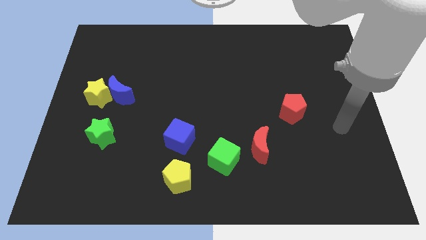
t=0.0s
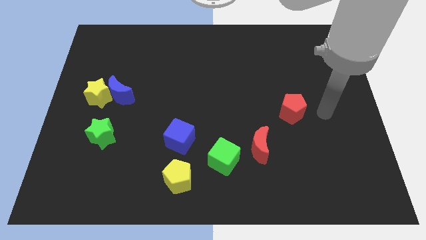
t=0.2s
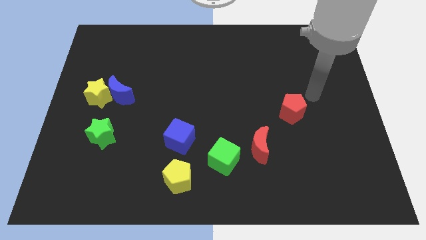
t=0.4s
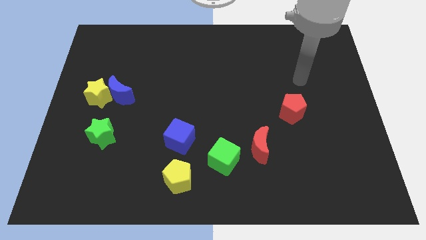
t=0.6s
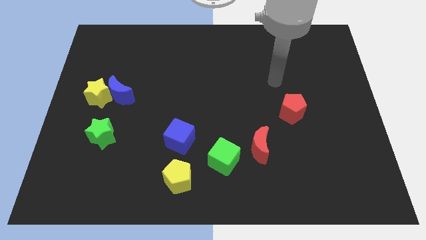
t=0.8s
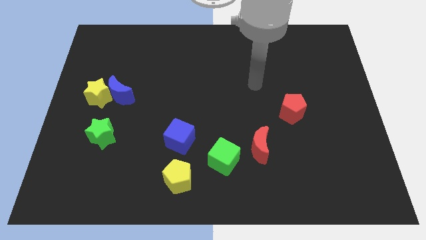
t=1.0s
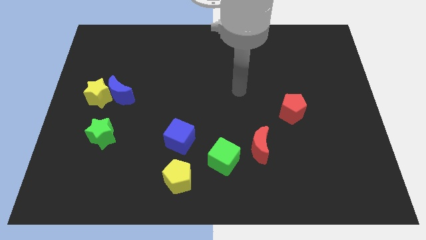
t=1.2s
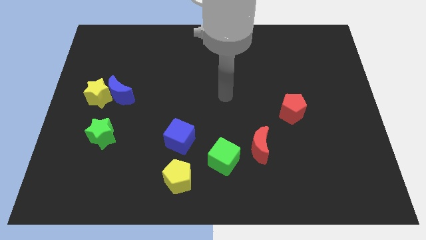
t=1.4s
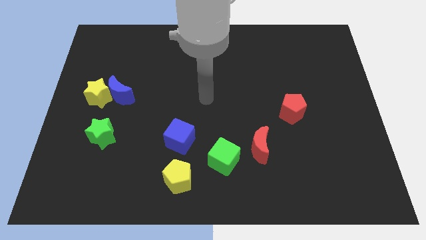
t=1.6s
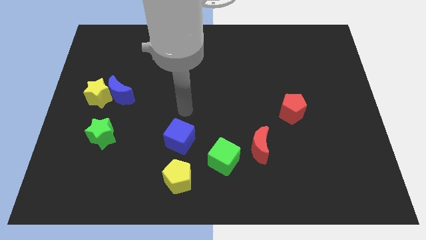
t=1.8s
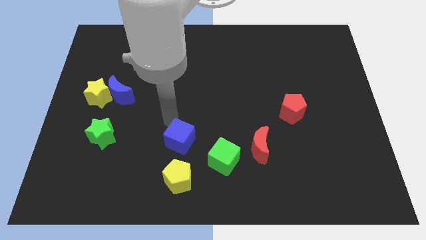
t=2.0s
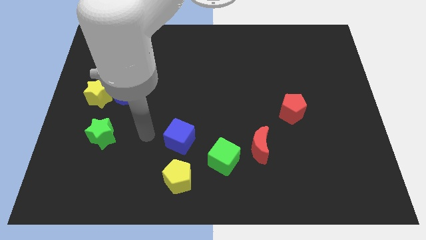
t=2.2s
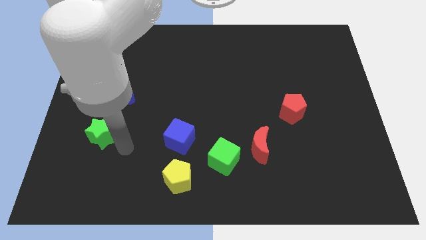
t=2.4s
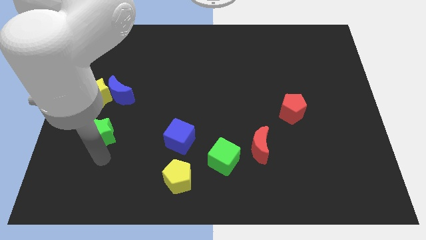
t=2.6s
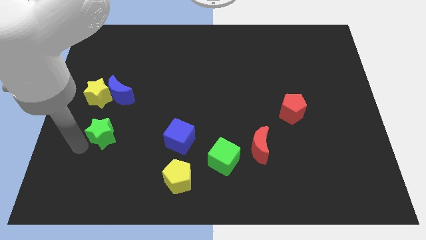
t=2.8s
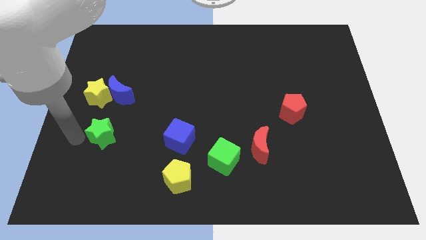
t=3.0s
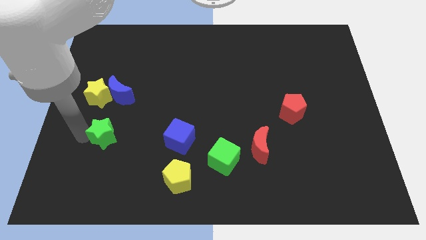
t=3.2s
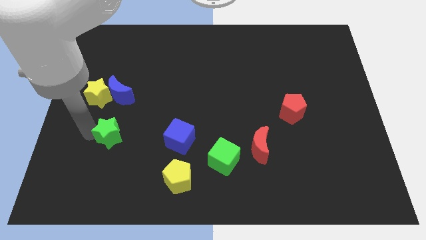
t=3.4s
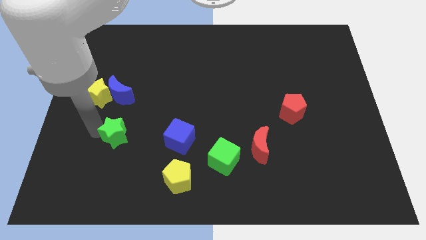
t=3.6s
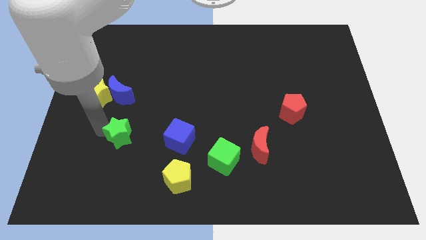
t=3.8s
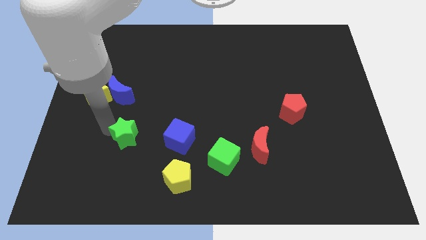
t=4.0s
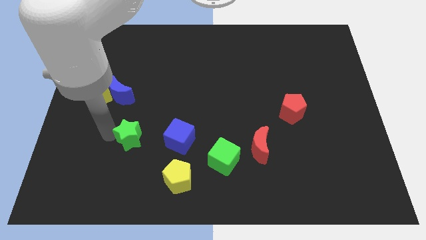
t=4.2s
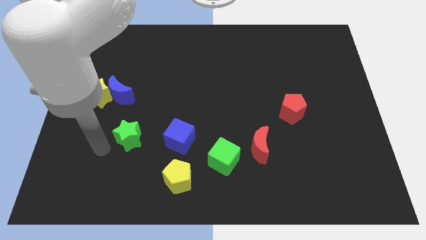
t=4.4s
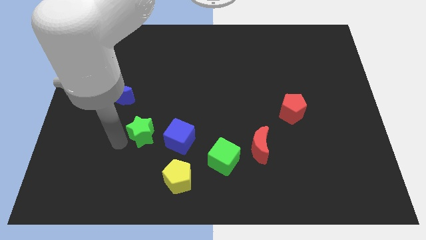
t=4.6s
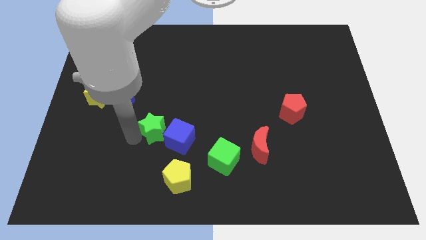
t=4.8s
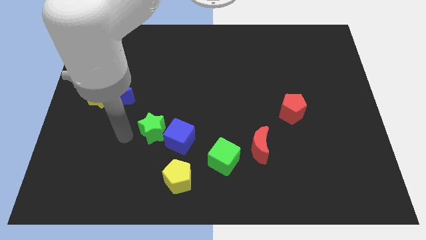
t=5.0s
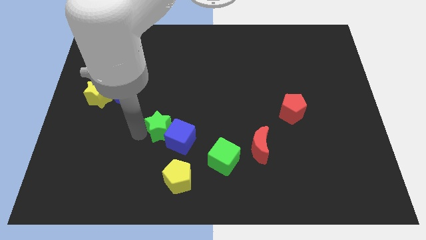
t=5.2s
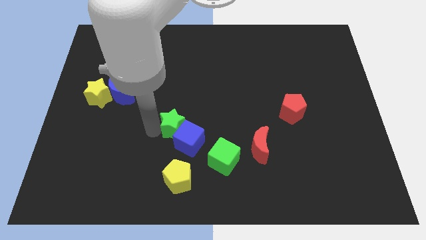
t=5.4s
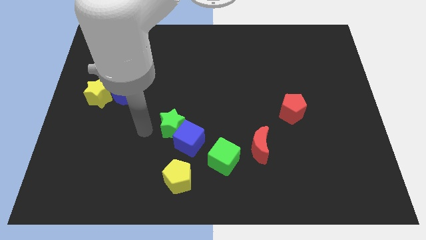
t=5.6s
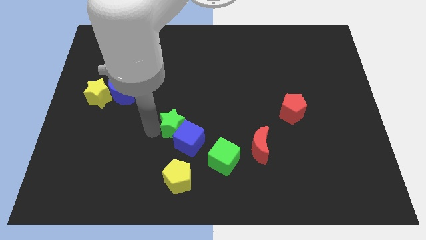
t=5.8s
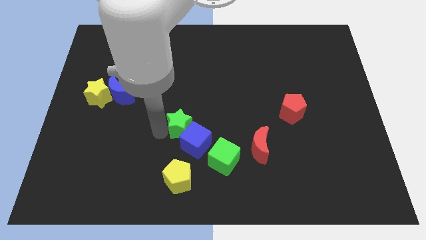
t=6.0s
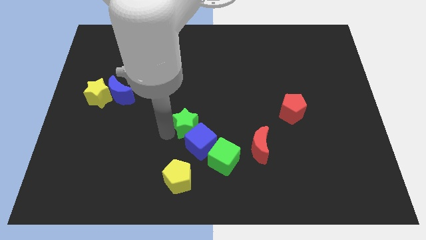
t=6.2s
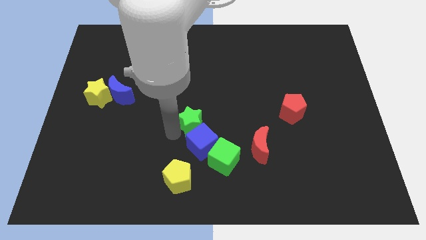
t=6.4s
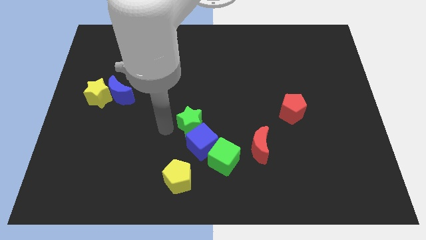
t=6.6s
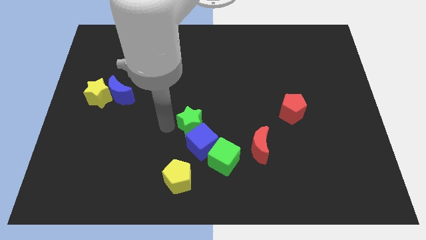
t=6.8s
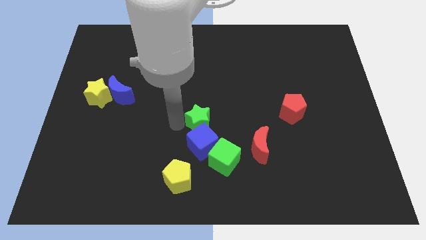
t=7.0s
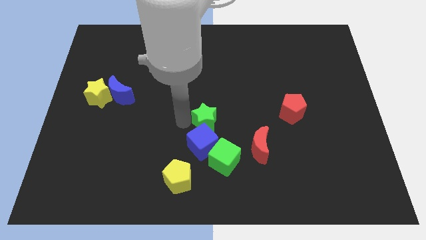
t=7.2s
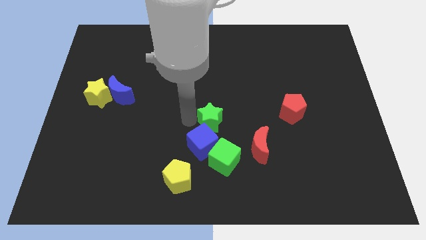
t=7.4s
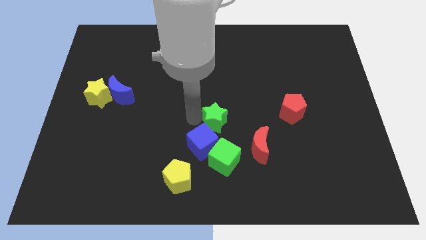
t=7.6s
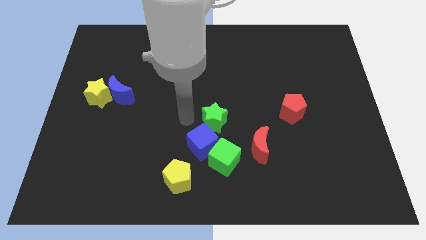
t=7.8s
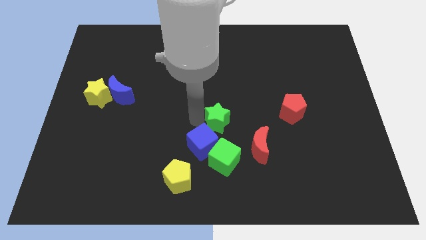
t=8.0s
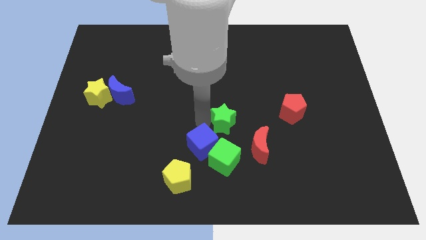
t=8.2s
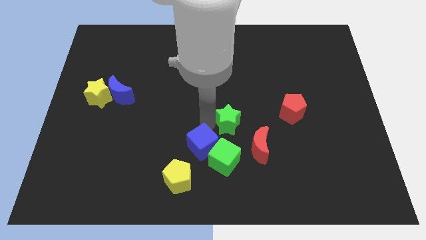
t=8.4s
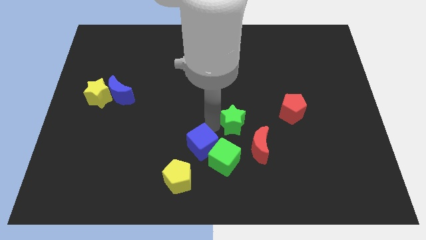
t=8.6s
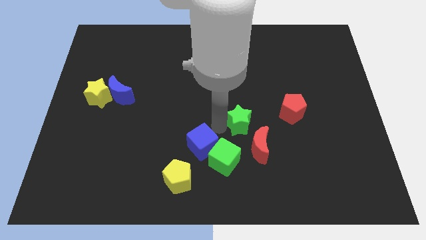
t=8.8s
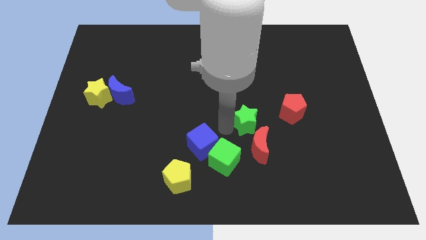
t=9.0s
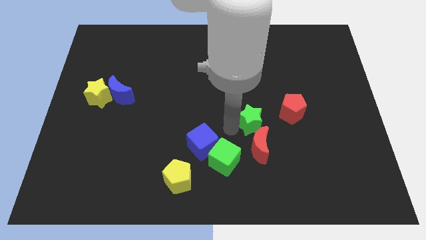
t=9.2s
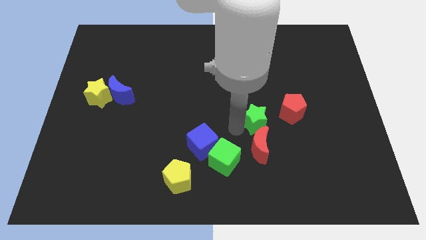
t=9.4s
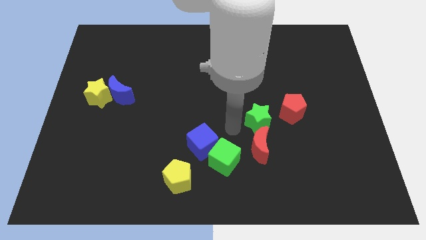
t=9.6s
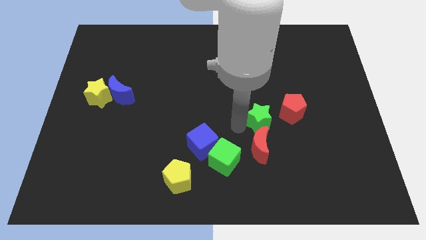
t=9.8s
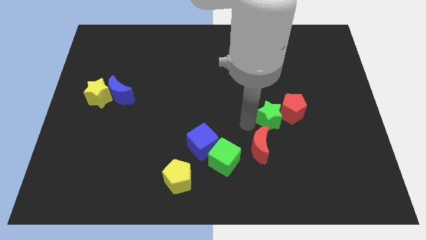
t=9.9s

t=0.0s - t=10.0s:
put the green star towards the red pentagon

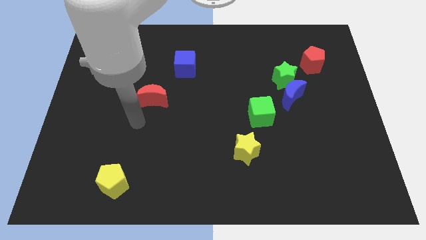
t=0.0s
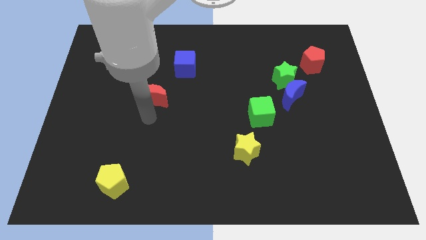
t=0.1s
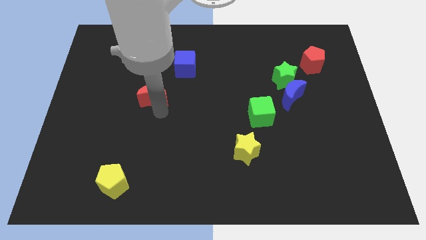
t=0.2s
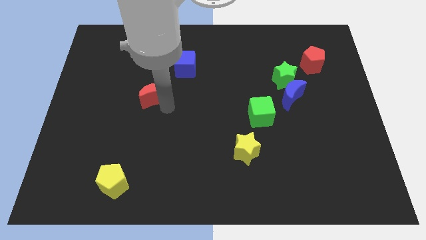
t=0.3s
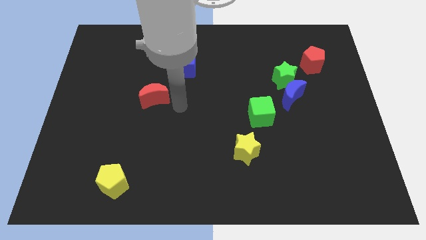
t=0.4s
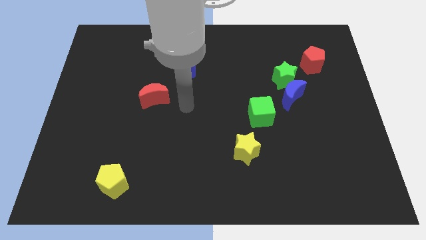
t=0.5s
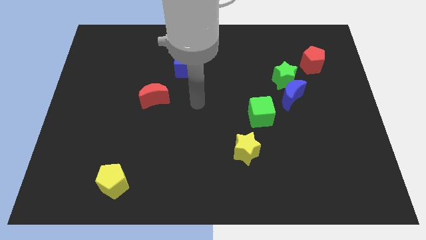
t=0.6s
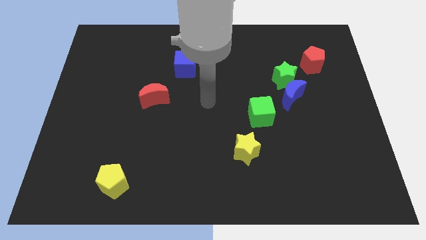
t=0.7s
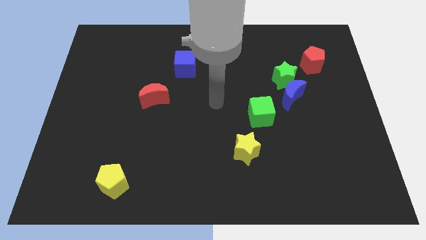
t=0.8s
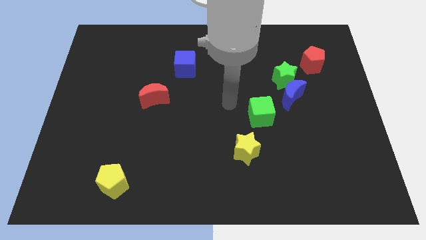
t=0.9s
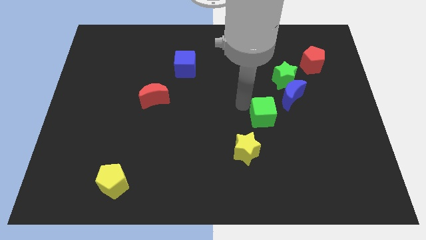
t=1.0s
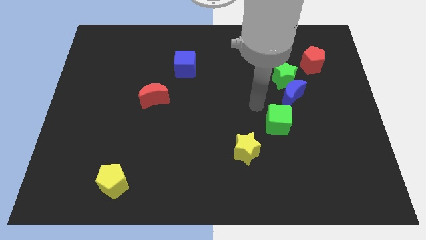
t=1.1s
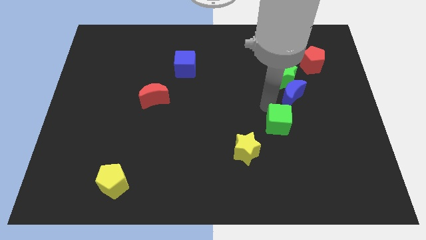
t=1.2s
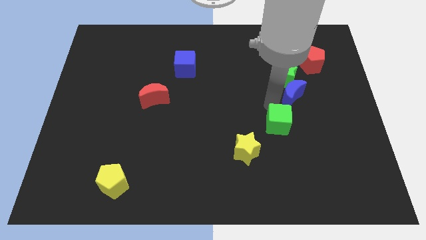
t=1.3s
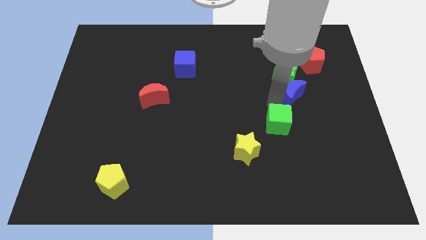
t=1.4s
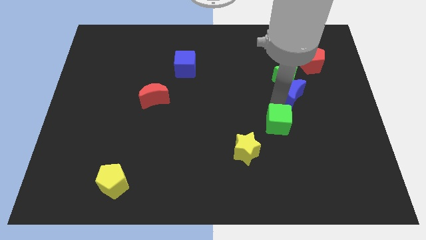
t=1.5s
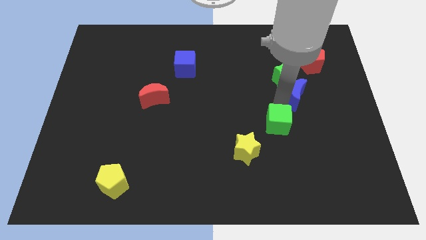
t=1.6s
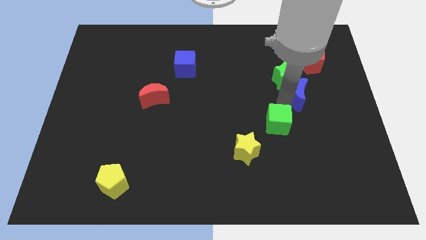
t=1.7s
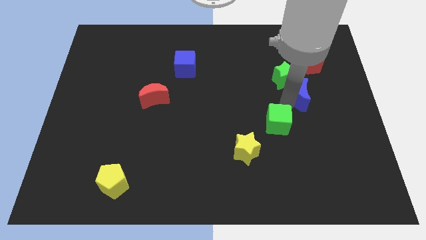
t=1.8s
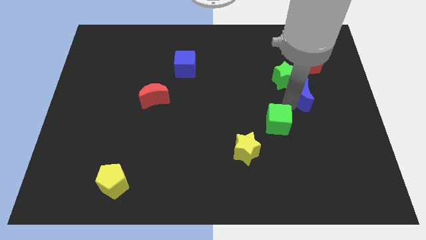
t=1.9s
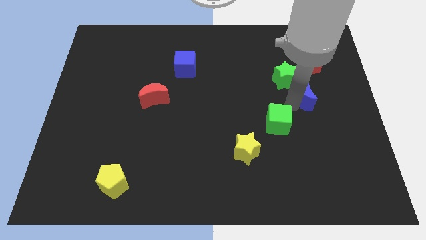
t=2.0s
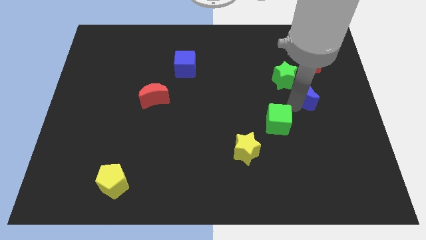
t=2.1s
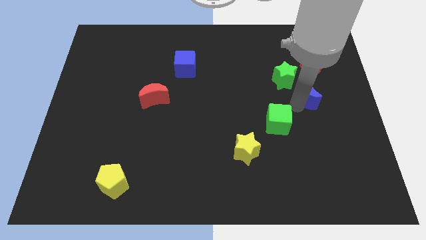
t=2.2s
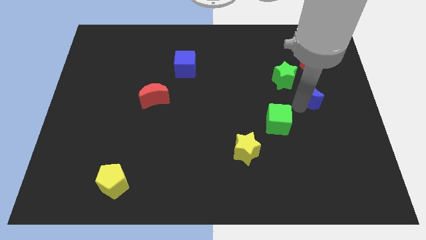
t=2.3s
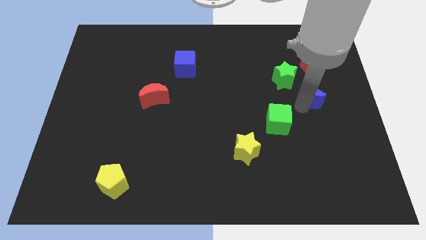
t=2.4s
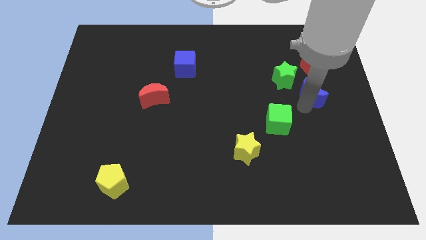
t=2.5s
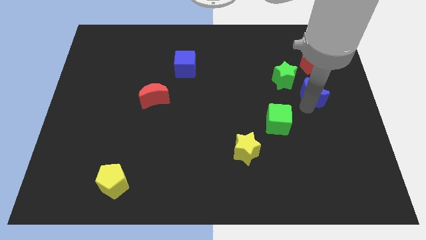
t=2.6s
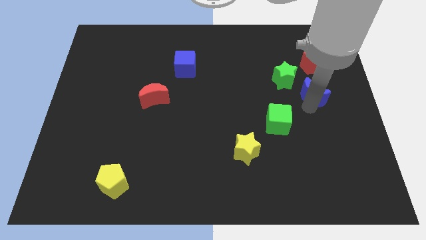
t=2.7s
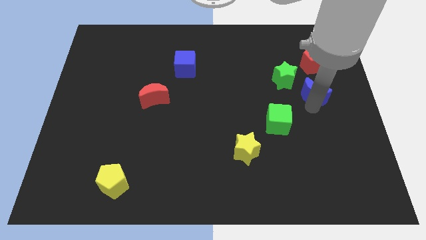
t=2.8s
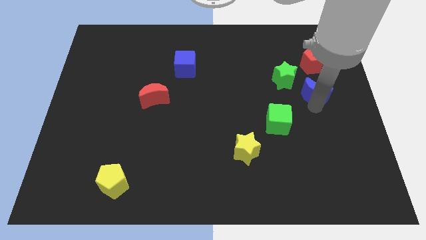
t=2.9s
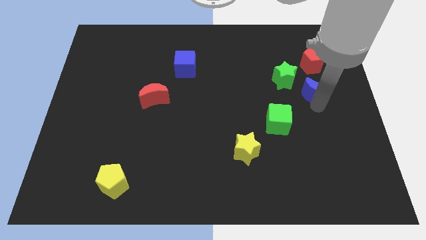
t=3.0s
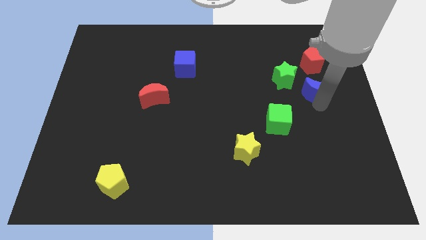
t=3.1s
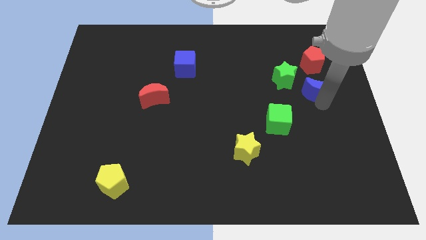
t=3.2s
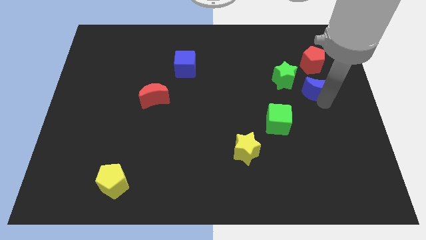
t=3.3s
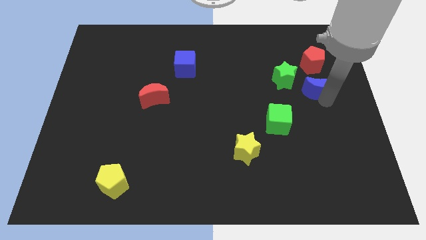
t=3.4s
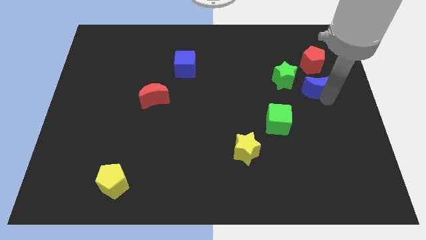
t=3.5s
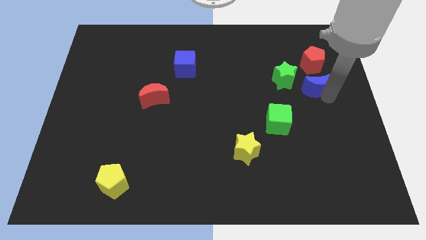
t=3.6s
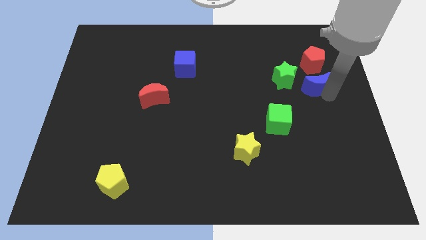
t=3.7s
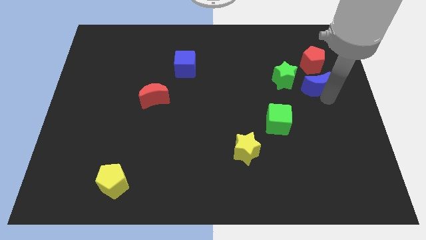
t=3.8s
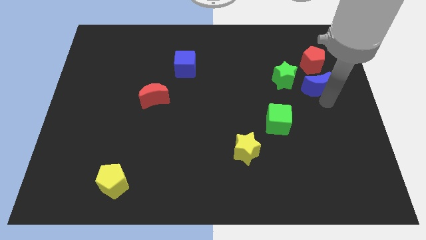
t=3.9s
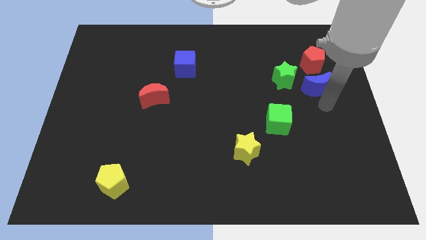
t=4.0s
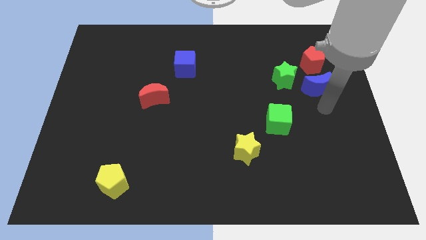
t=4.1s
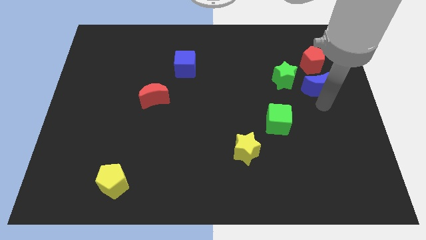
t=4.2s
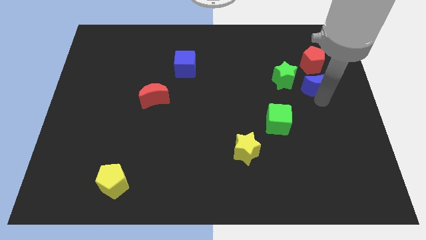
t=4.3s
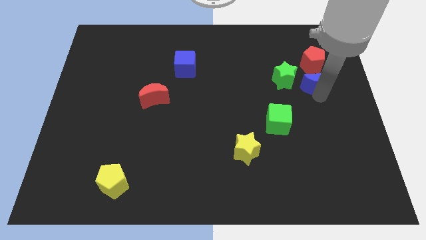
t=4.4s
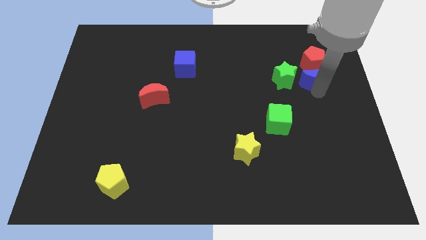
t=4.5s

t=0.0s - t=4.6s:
put the blue moon close to the red pentagon
